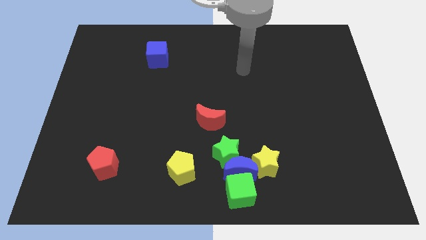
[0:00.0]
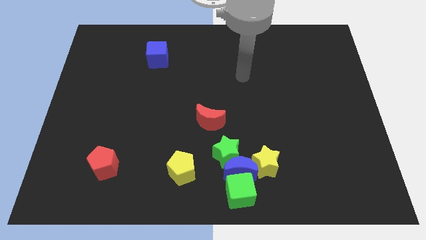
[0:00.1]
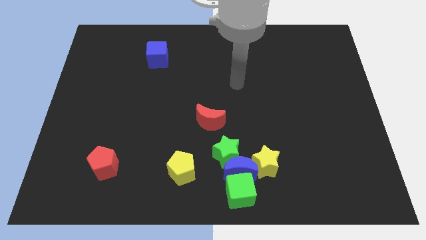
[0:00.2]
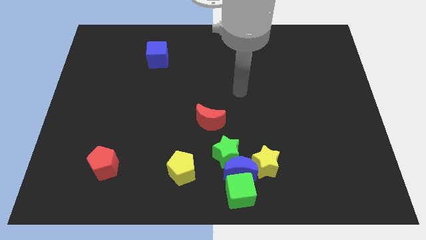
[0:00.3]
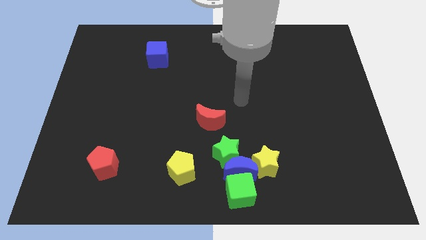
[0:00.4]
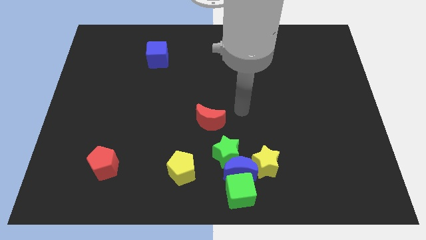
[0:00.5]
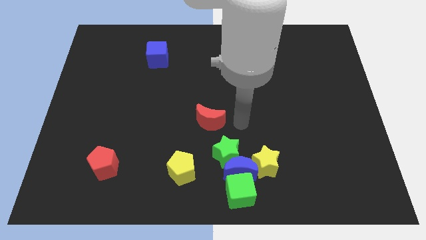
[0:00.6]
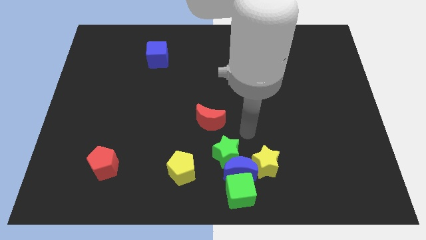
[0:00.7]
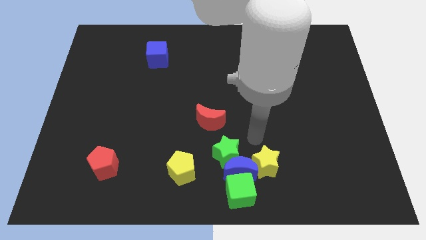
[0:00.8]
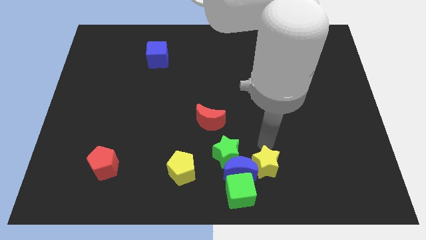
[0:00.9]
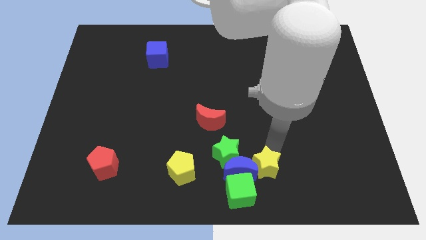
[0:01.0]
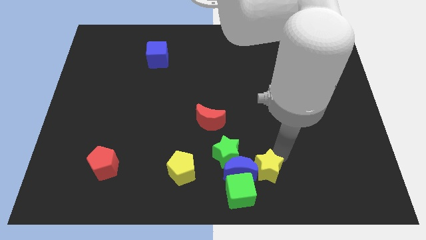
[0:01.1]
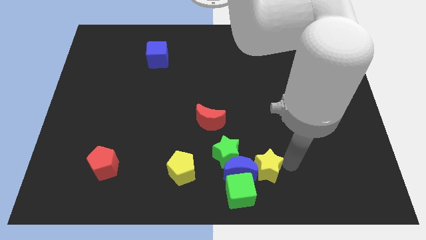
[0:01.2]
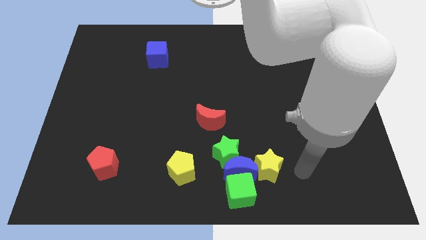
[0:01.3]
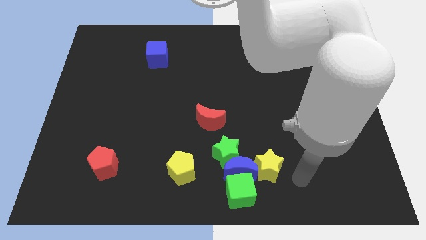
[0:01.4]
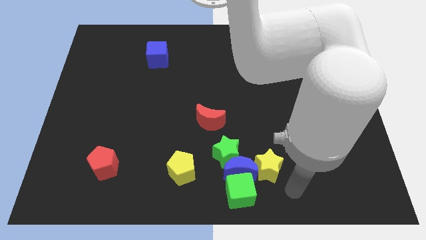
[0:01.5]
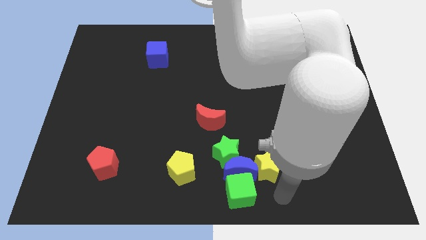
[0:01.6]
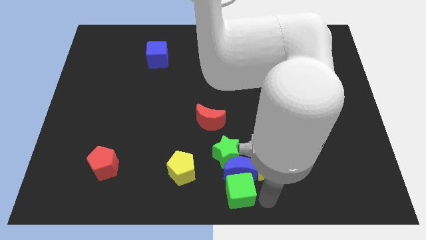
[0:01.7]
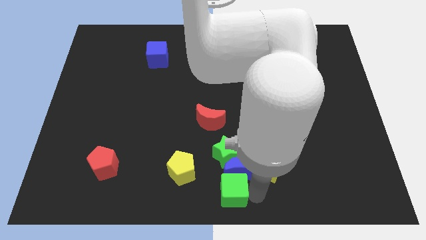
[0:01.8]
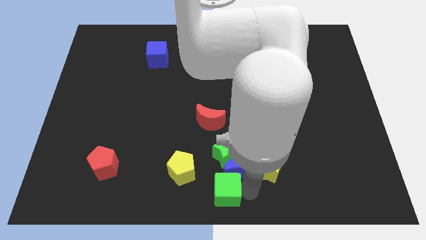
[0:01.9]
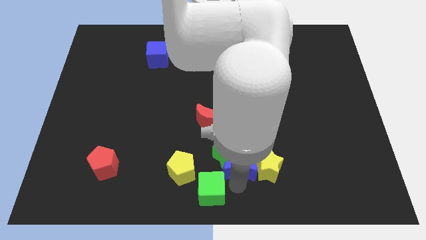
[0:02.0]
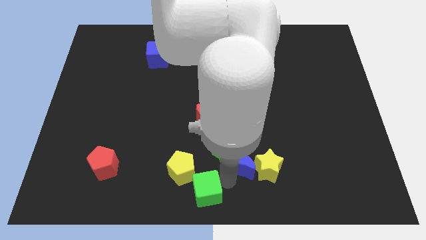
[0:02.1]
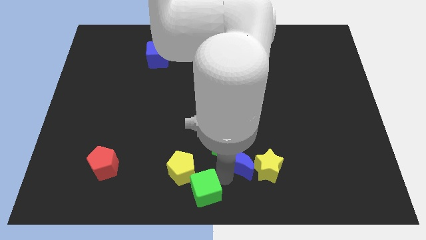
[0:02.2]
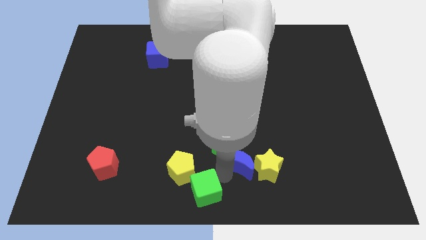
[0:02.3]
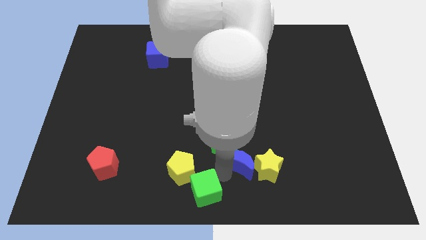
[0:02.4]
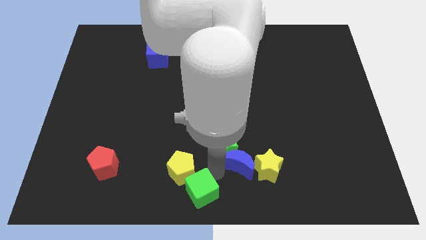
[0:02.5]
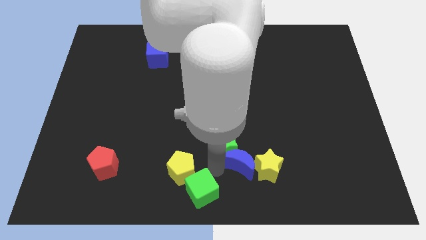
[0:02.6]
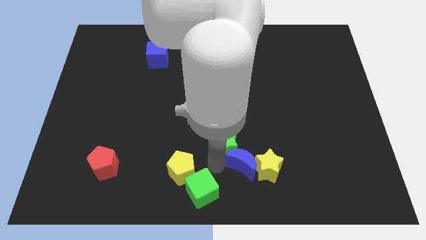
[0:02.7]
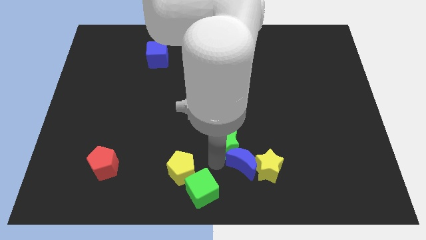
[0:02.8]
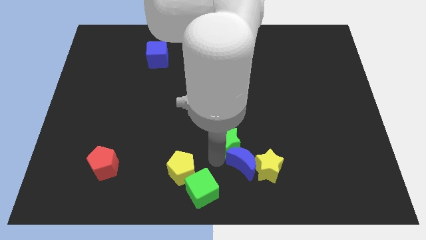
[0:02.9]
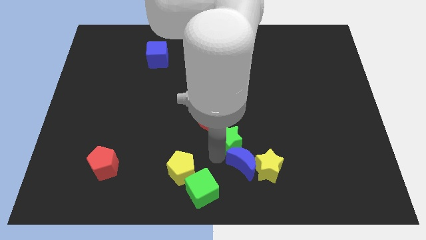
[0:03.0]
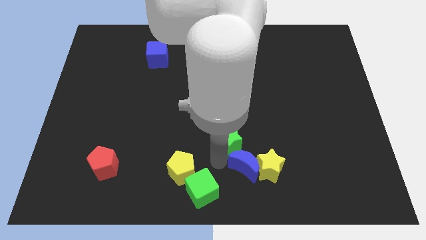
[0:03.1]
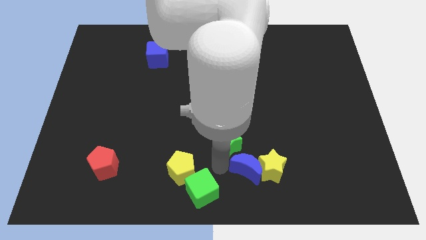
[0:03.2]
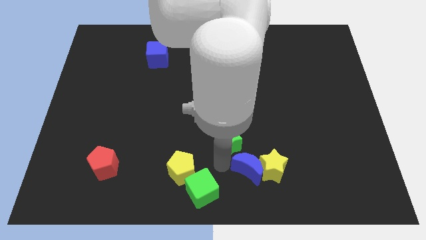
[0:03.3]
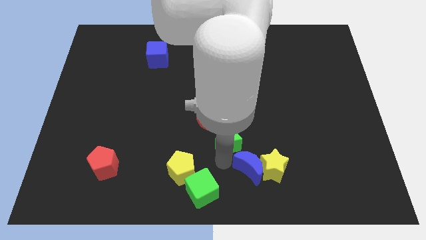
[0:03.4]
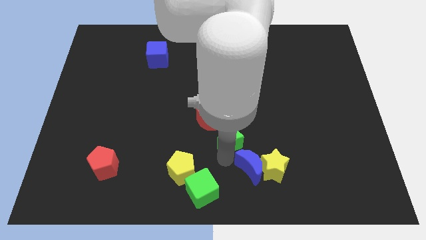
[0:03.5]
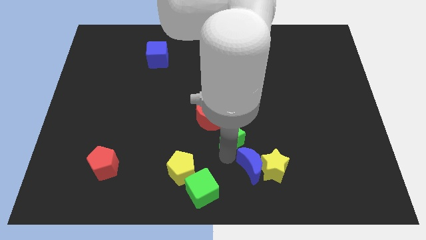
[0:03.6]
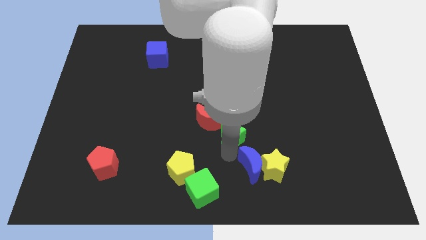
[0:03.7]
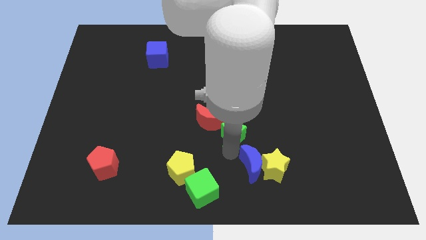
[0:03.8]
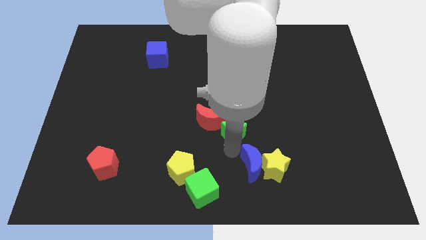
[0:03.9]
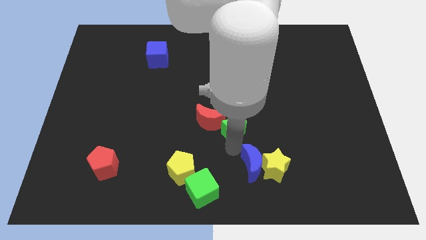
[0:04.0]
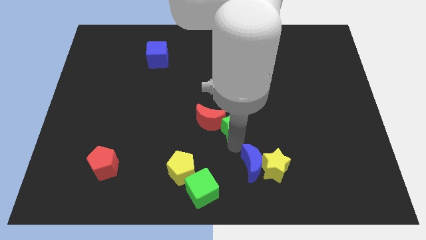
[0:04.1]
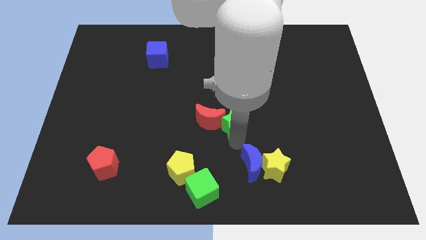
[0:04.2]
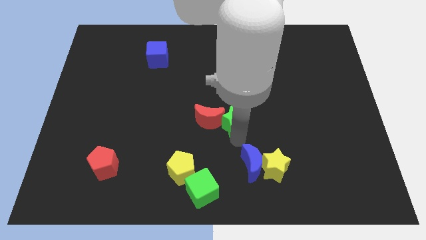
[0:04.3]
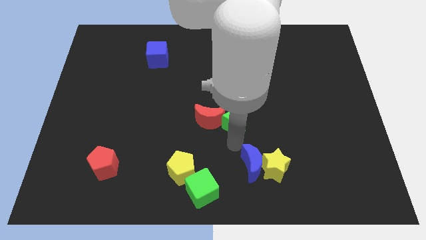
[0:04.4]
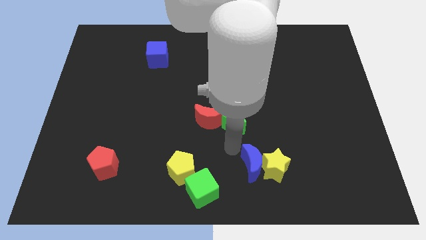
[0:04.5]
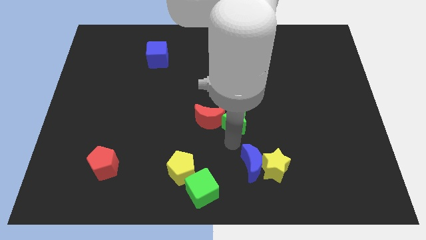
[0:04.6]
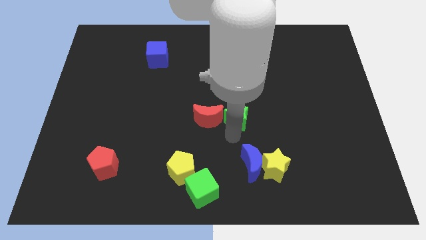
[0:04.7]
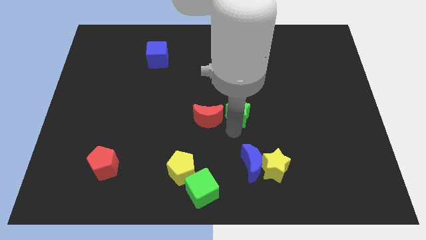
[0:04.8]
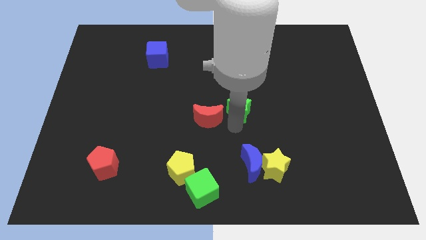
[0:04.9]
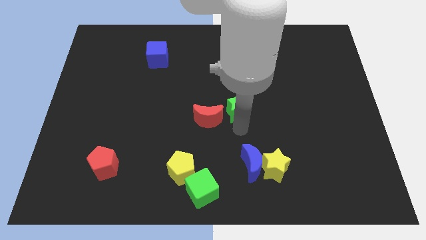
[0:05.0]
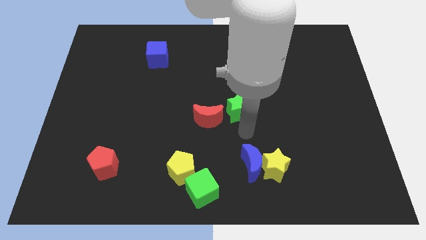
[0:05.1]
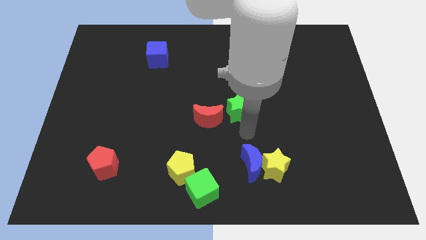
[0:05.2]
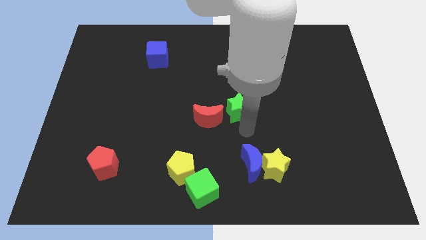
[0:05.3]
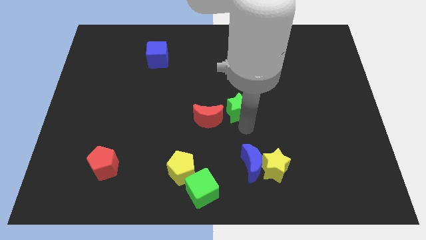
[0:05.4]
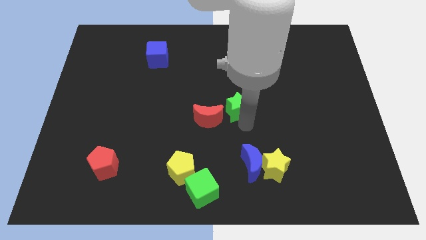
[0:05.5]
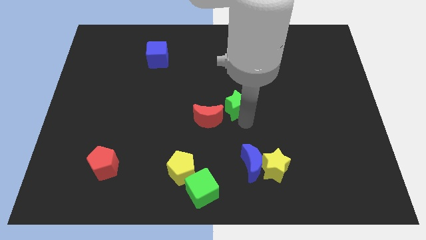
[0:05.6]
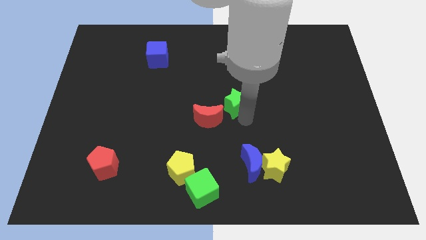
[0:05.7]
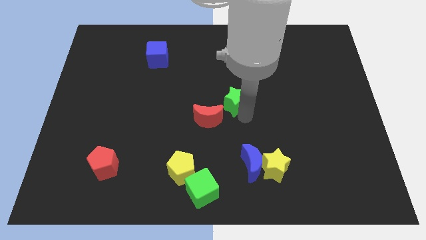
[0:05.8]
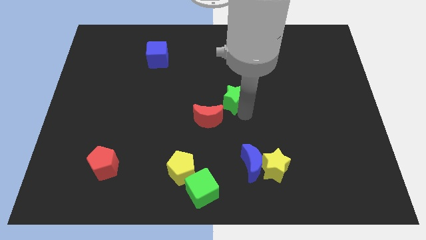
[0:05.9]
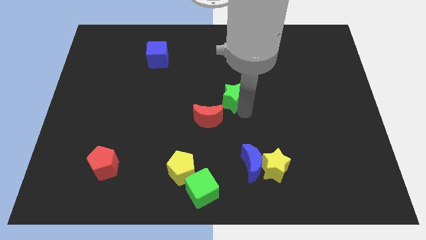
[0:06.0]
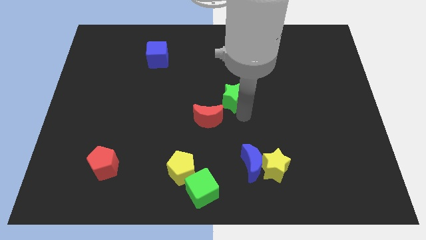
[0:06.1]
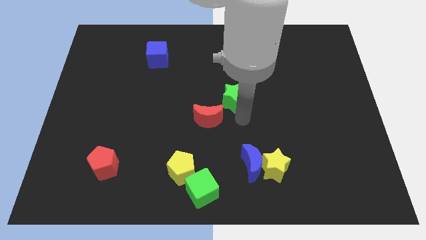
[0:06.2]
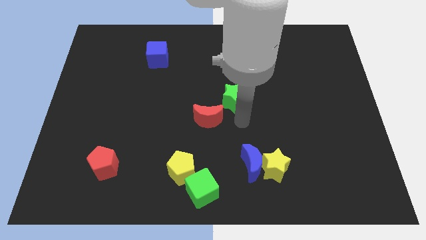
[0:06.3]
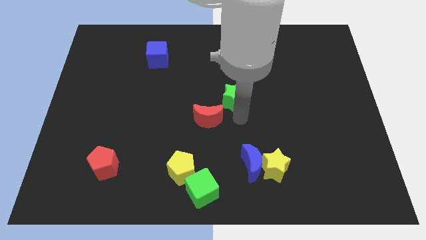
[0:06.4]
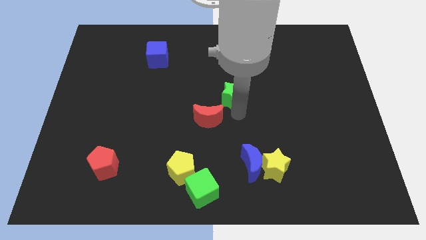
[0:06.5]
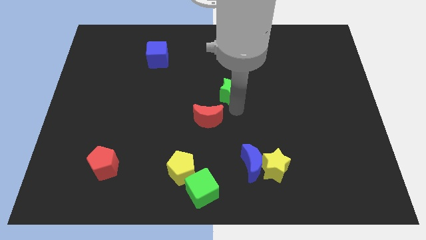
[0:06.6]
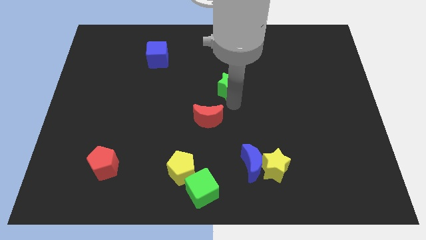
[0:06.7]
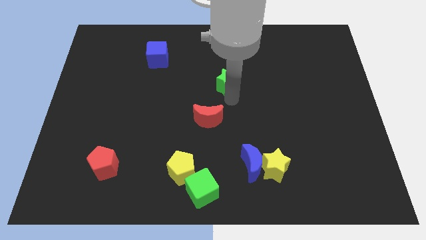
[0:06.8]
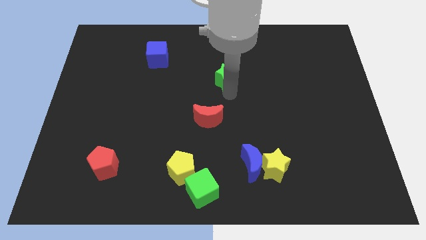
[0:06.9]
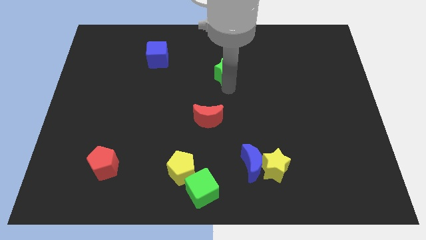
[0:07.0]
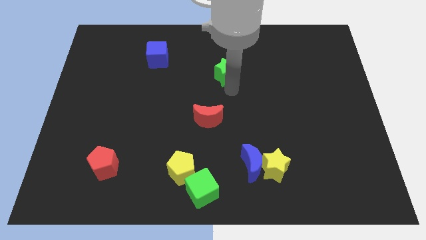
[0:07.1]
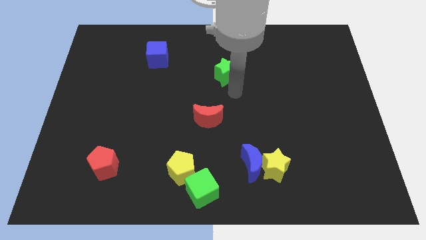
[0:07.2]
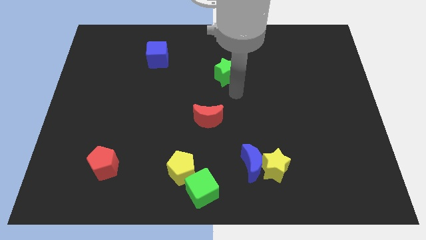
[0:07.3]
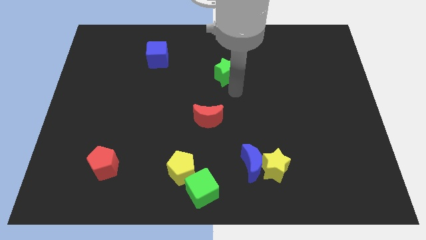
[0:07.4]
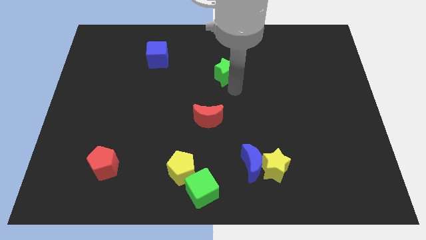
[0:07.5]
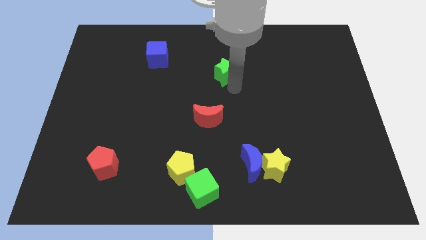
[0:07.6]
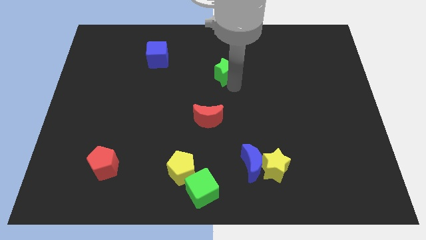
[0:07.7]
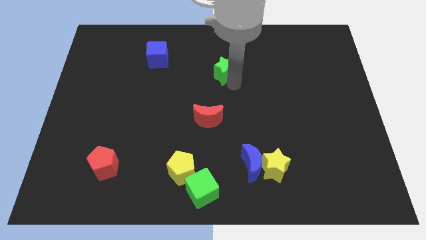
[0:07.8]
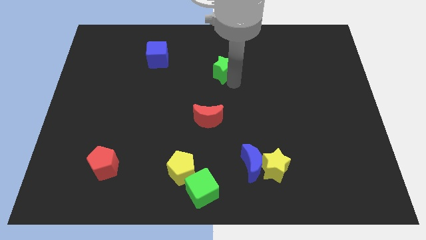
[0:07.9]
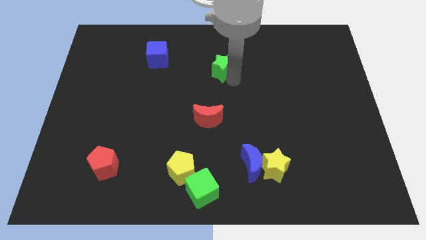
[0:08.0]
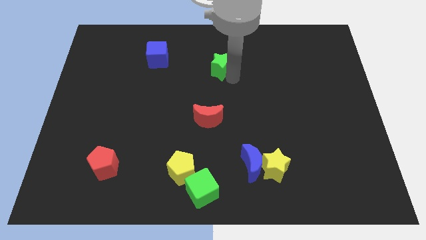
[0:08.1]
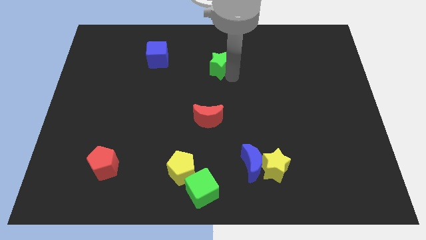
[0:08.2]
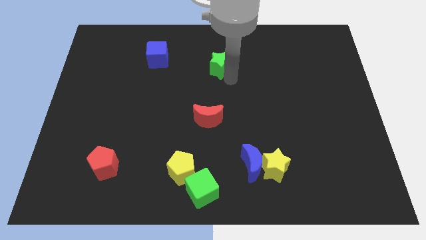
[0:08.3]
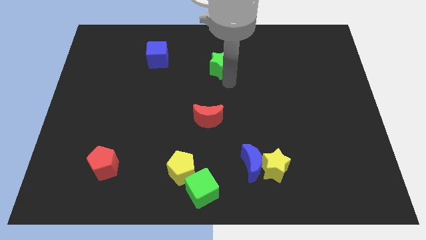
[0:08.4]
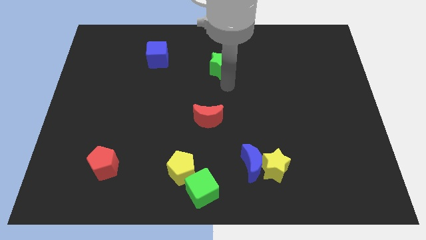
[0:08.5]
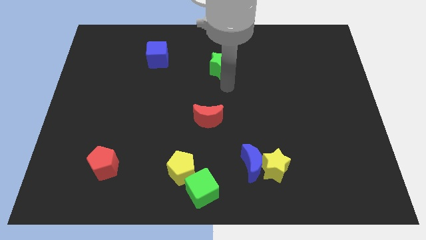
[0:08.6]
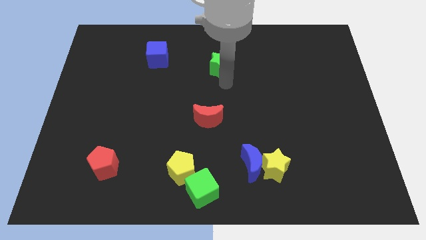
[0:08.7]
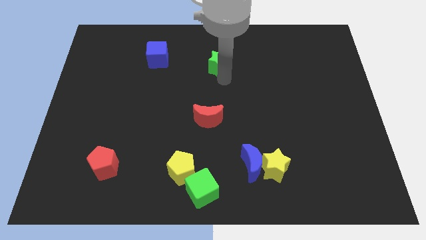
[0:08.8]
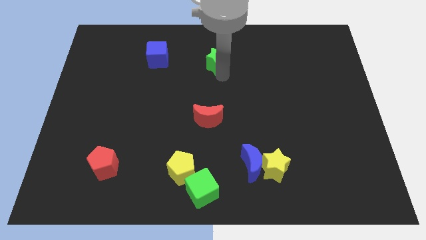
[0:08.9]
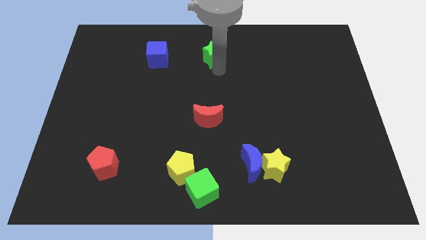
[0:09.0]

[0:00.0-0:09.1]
slide the green star to the top side
